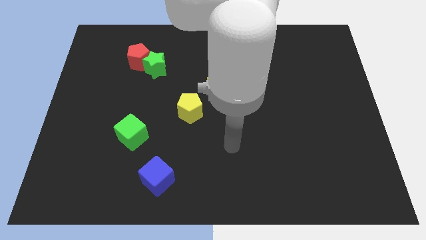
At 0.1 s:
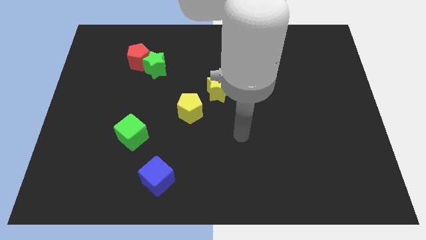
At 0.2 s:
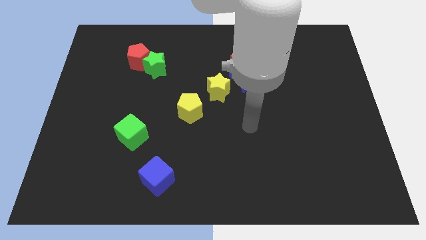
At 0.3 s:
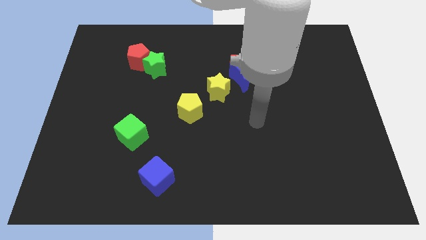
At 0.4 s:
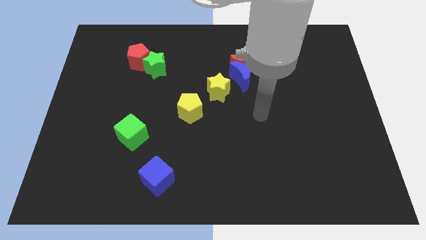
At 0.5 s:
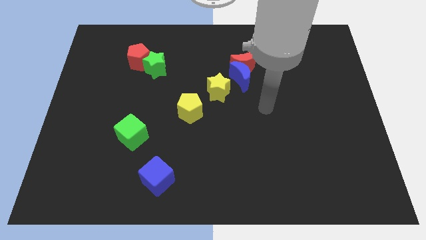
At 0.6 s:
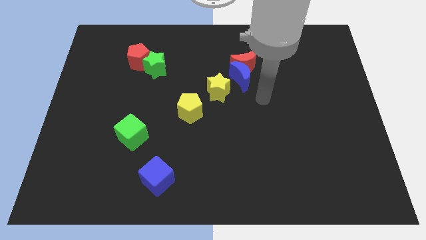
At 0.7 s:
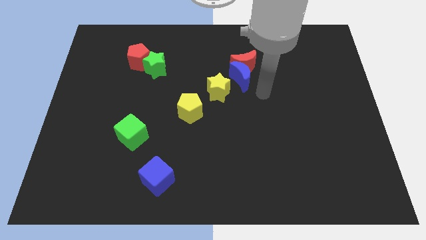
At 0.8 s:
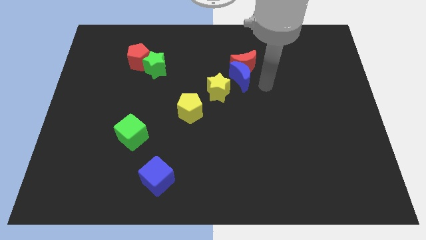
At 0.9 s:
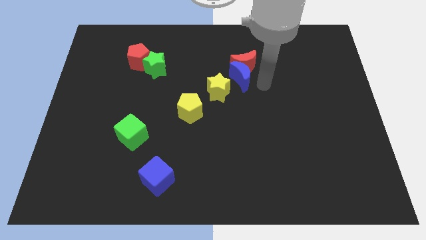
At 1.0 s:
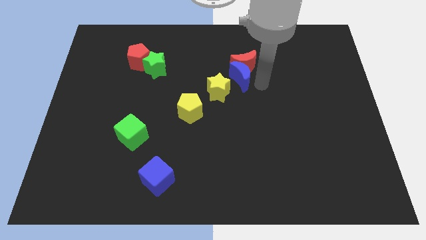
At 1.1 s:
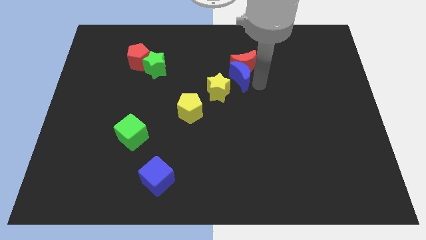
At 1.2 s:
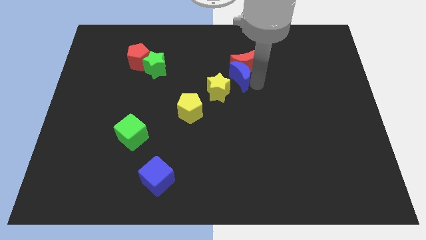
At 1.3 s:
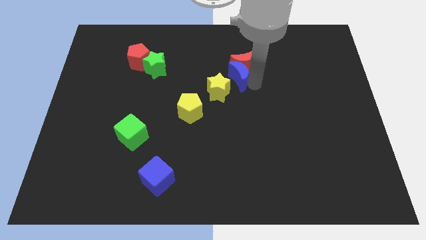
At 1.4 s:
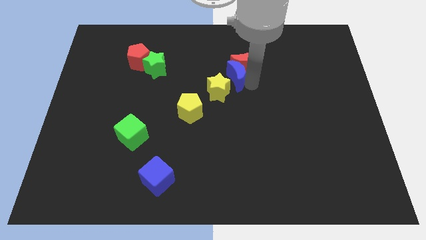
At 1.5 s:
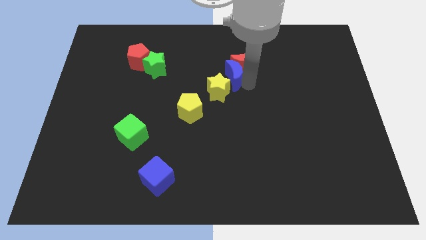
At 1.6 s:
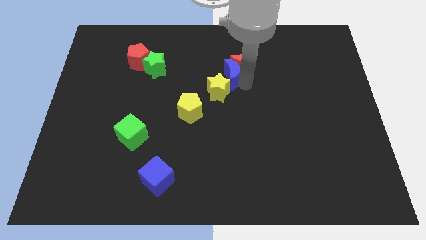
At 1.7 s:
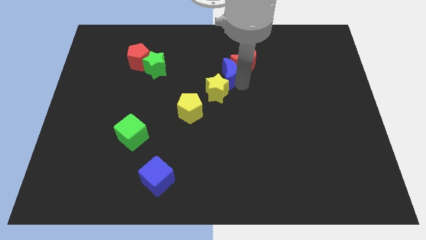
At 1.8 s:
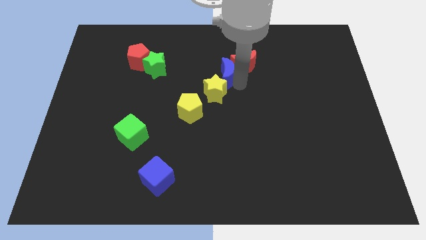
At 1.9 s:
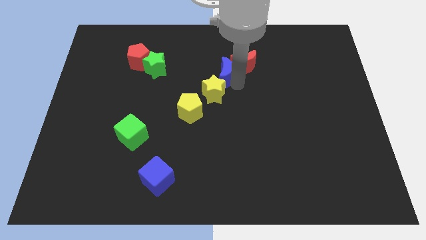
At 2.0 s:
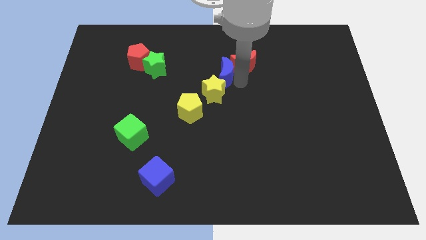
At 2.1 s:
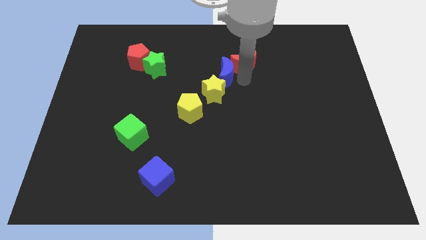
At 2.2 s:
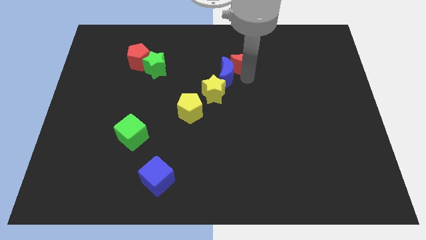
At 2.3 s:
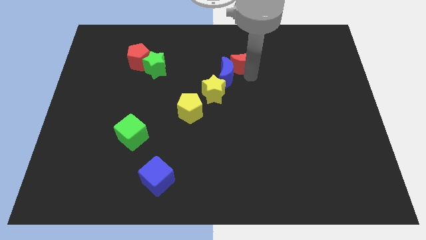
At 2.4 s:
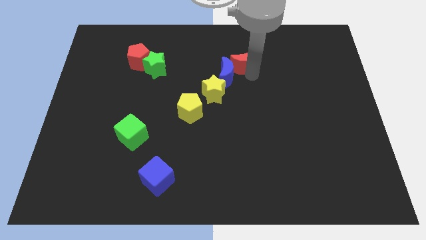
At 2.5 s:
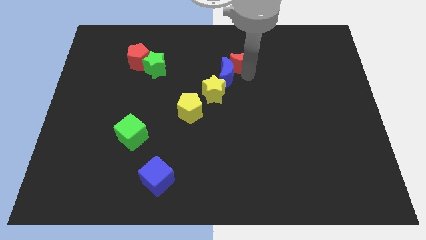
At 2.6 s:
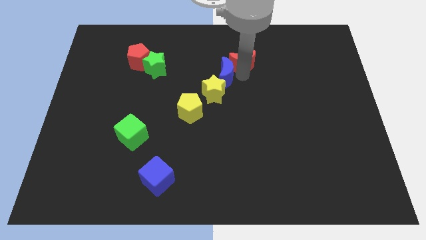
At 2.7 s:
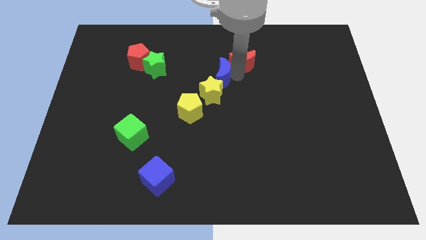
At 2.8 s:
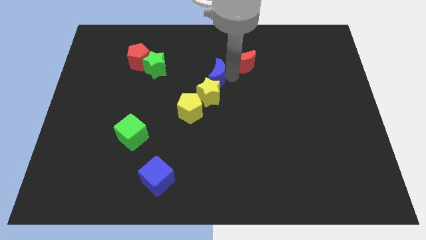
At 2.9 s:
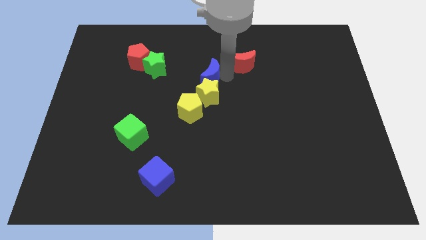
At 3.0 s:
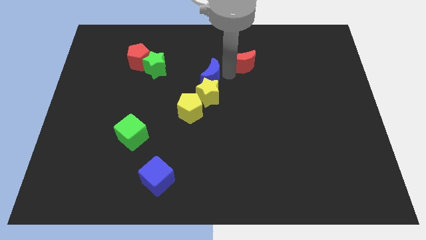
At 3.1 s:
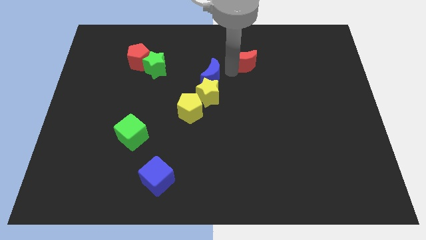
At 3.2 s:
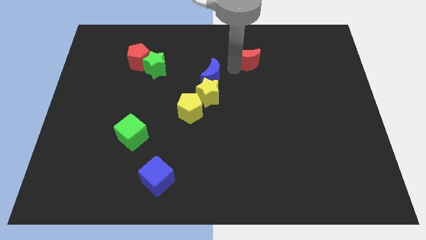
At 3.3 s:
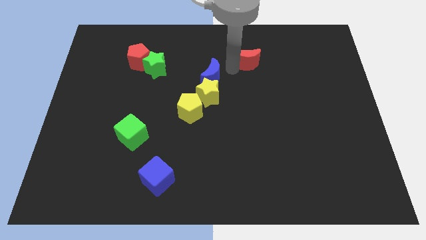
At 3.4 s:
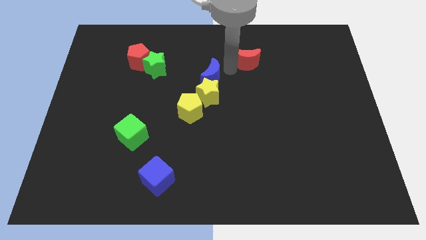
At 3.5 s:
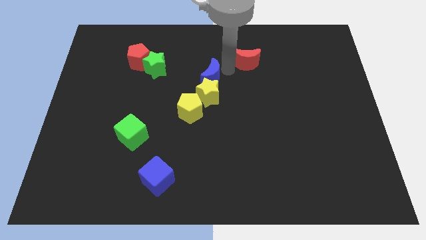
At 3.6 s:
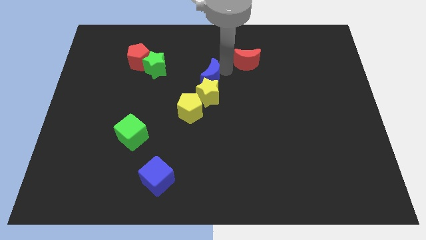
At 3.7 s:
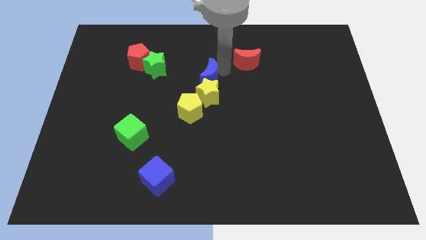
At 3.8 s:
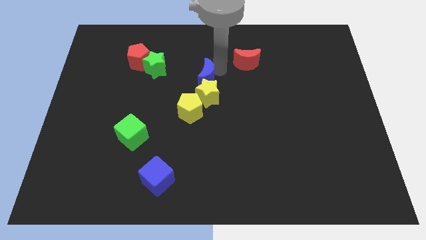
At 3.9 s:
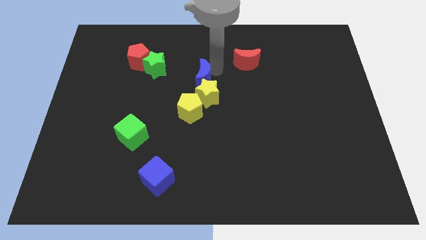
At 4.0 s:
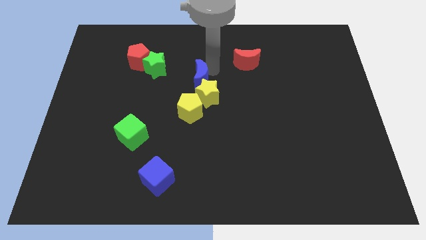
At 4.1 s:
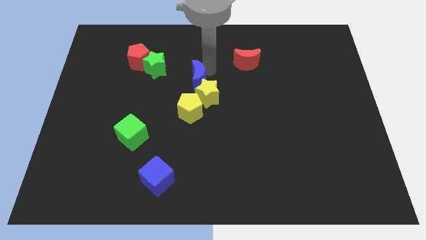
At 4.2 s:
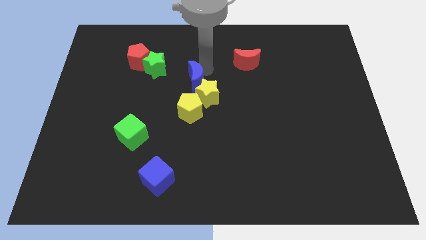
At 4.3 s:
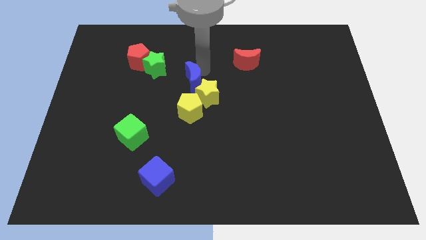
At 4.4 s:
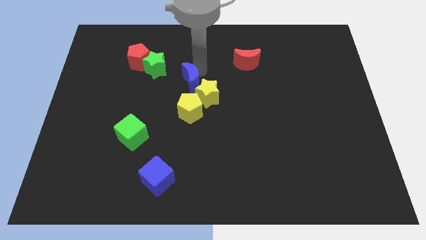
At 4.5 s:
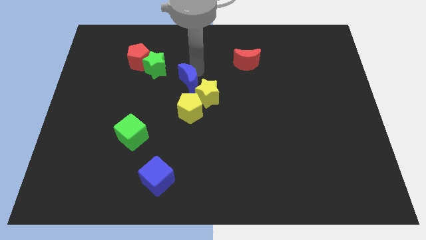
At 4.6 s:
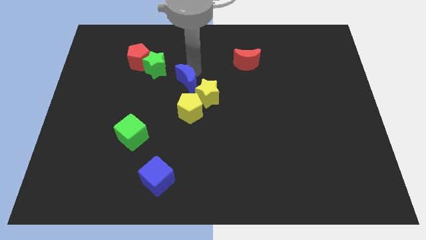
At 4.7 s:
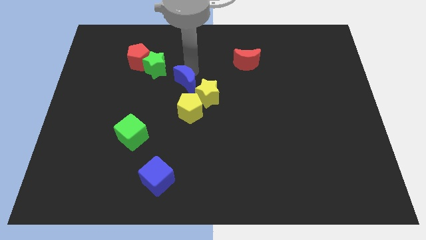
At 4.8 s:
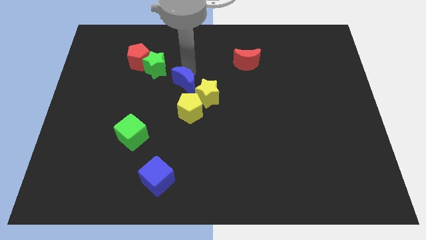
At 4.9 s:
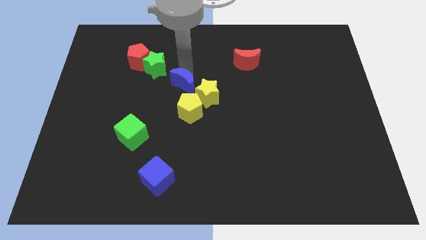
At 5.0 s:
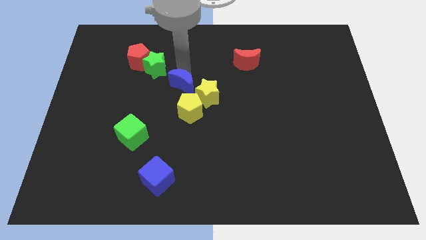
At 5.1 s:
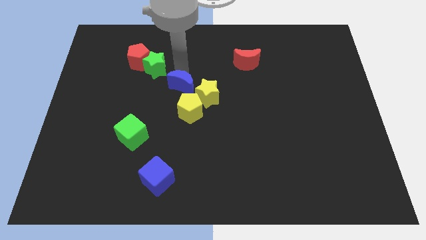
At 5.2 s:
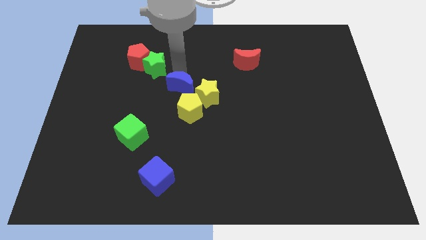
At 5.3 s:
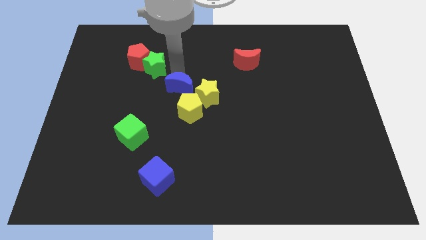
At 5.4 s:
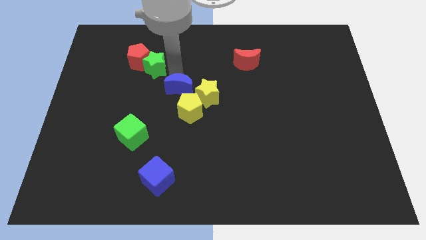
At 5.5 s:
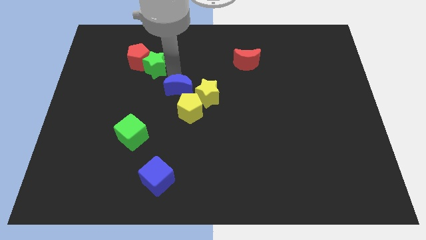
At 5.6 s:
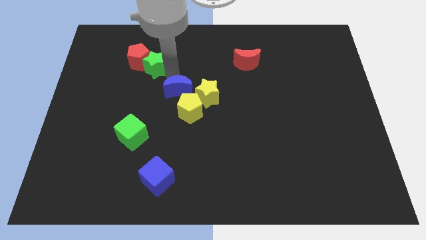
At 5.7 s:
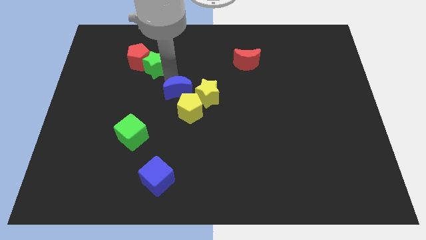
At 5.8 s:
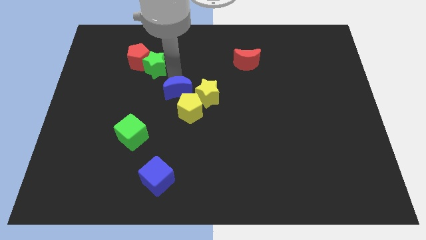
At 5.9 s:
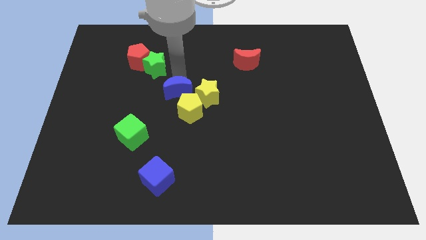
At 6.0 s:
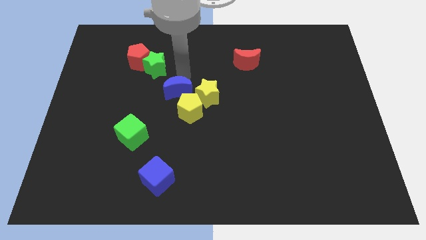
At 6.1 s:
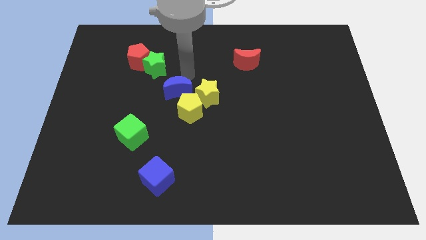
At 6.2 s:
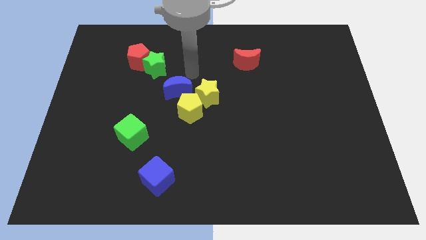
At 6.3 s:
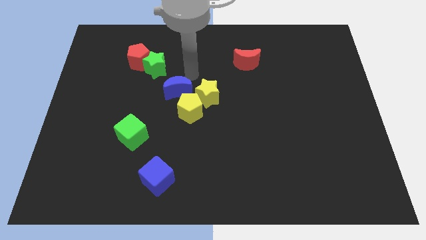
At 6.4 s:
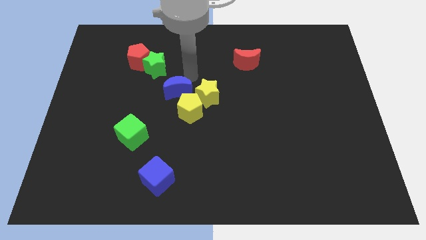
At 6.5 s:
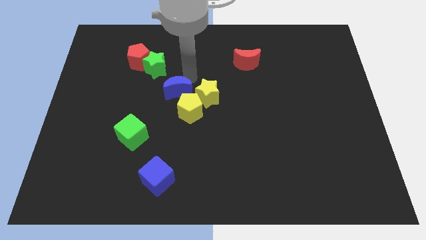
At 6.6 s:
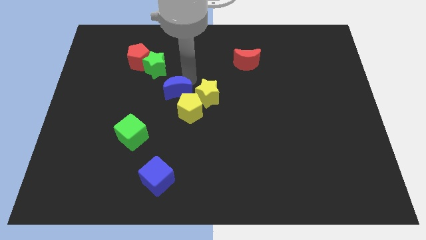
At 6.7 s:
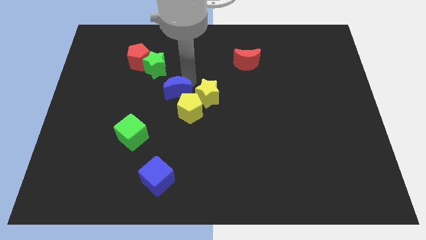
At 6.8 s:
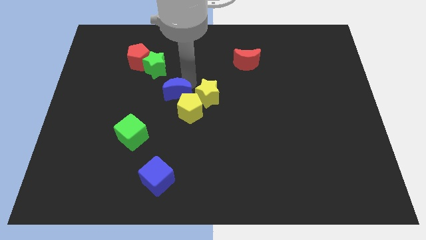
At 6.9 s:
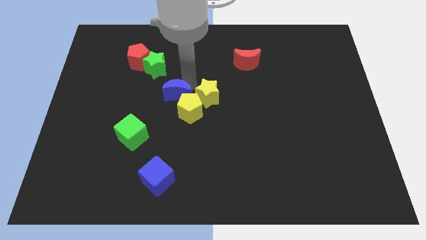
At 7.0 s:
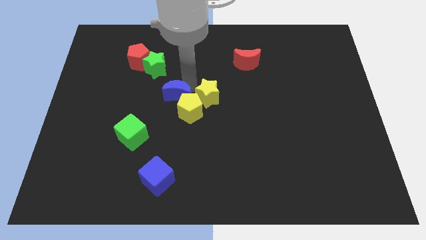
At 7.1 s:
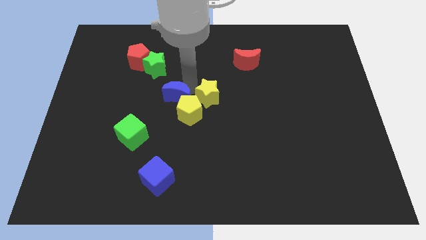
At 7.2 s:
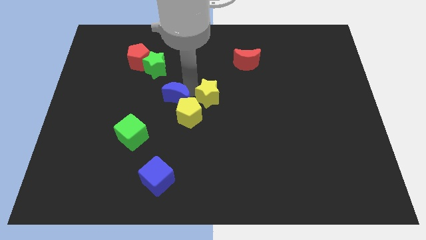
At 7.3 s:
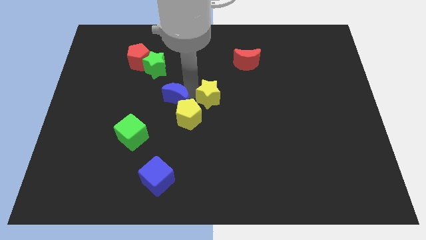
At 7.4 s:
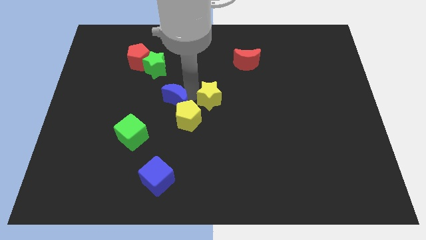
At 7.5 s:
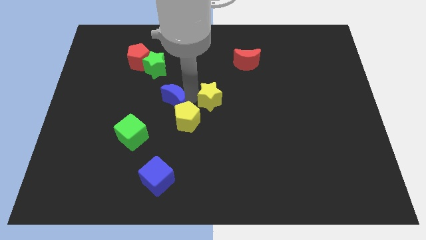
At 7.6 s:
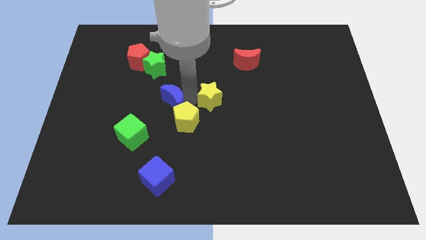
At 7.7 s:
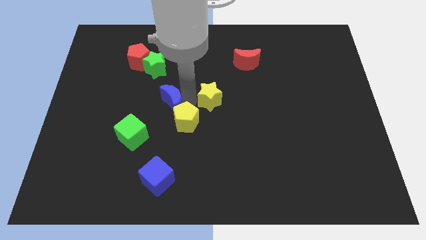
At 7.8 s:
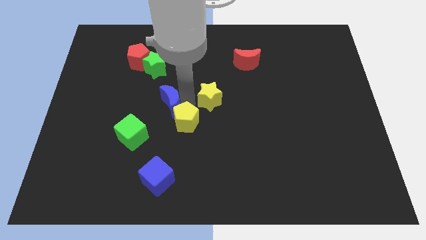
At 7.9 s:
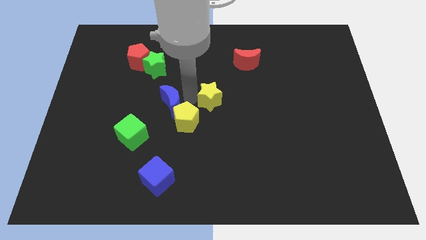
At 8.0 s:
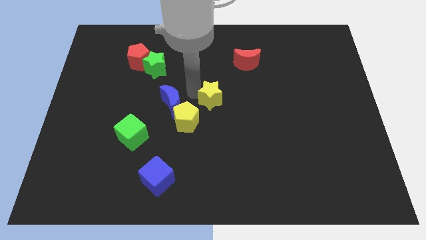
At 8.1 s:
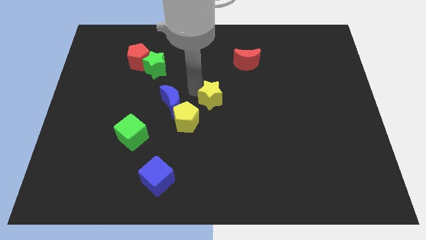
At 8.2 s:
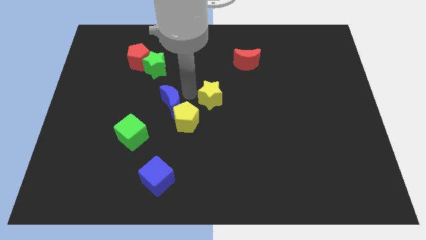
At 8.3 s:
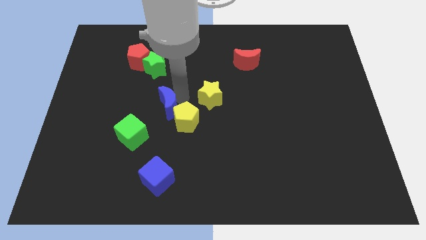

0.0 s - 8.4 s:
put the blue moon to the left side of the yellow pentagon
